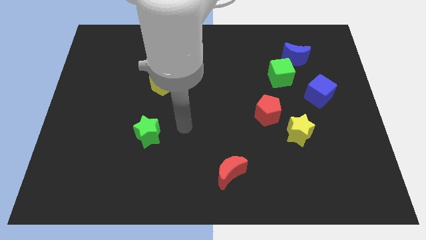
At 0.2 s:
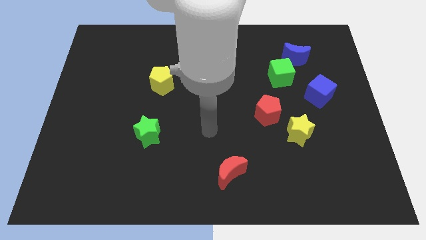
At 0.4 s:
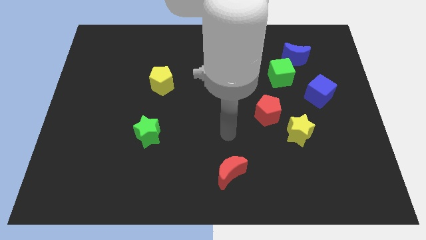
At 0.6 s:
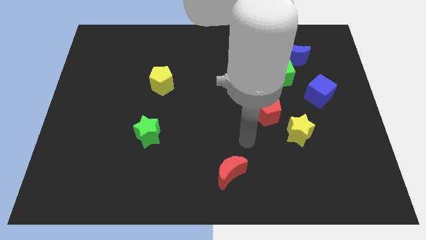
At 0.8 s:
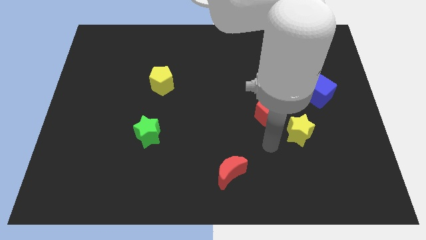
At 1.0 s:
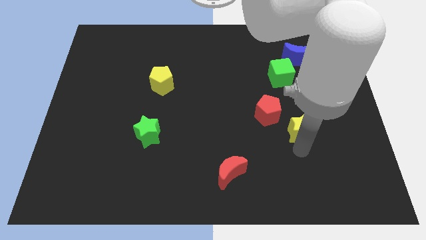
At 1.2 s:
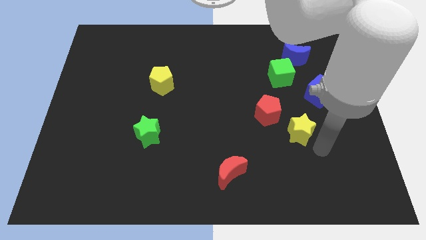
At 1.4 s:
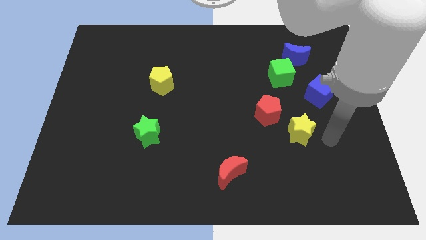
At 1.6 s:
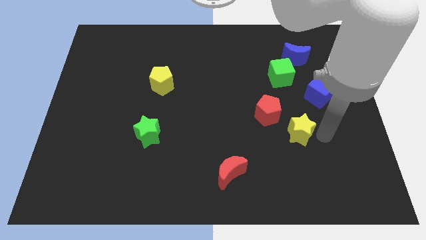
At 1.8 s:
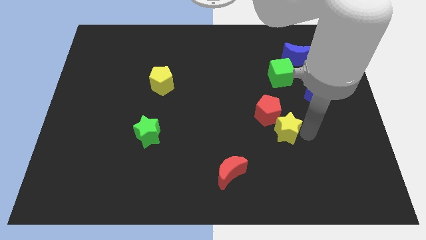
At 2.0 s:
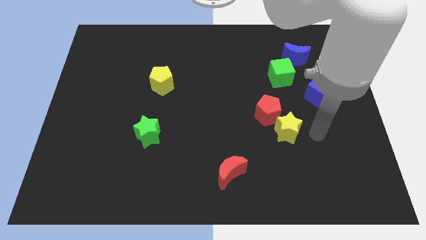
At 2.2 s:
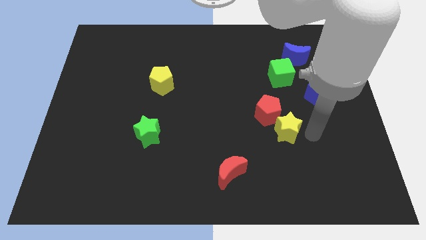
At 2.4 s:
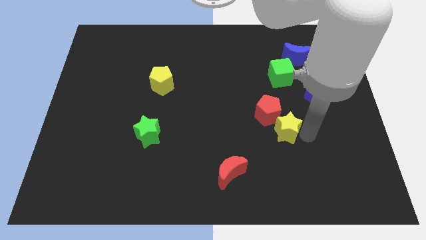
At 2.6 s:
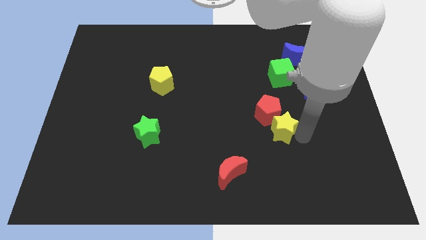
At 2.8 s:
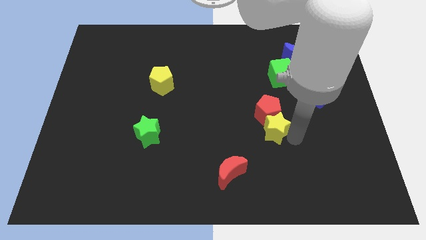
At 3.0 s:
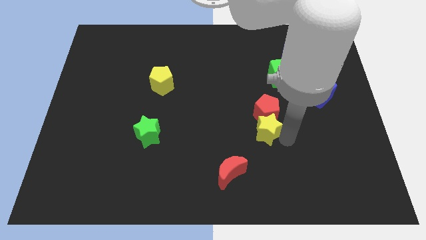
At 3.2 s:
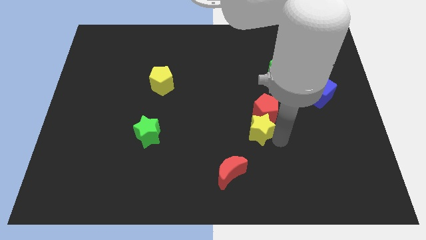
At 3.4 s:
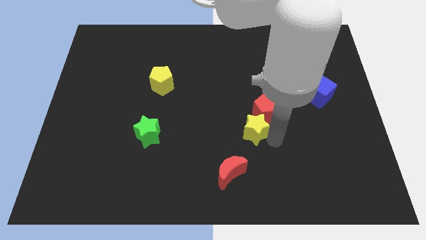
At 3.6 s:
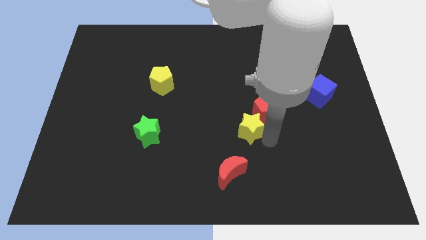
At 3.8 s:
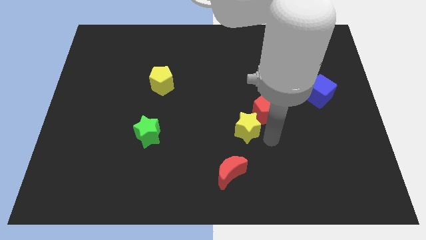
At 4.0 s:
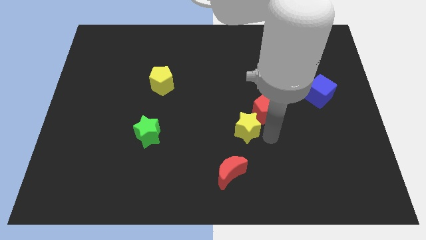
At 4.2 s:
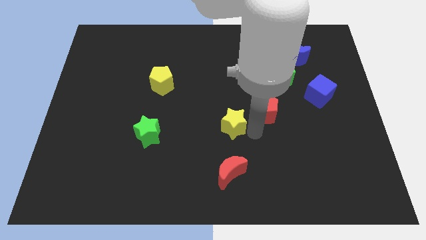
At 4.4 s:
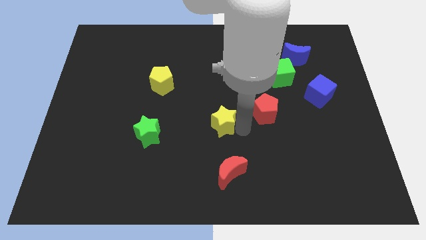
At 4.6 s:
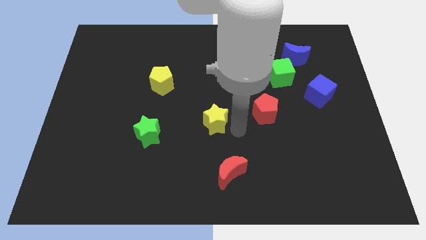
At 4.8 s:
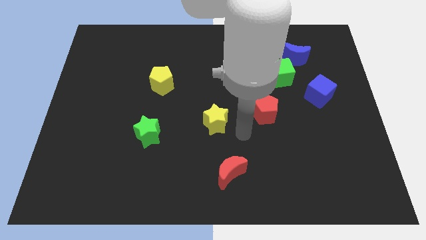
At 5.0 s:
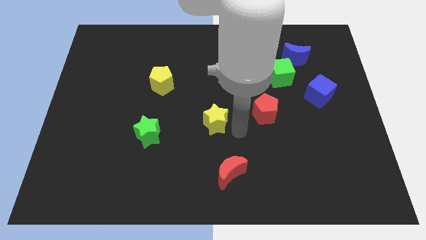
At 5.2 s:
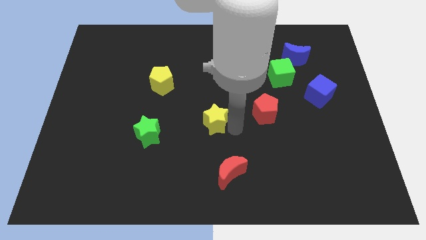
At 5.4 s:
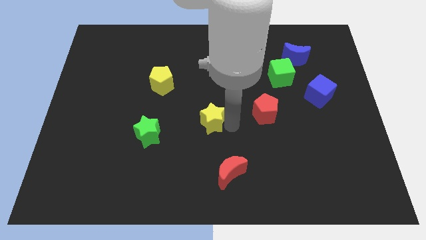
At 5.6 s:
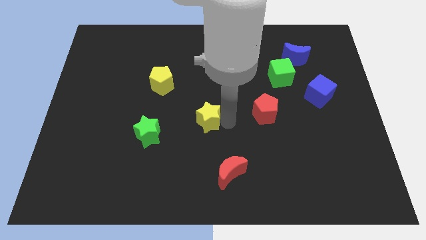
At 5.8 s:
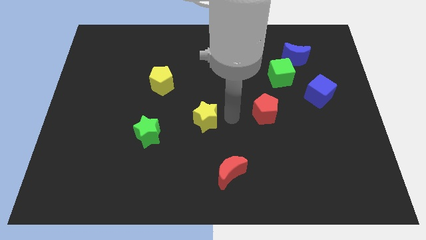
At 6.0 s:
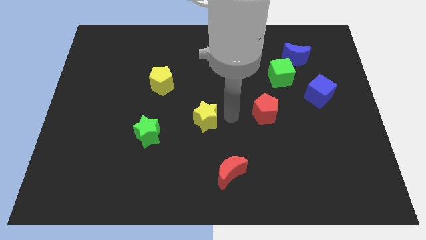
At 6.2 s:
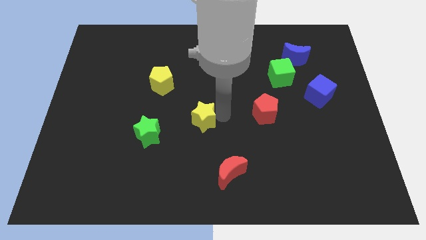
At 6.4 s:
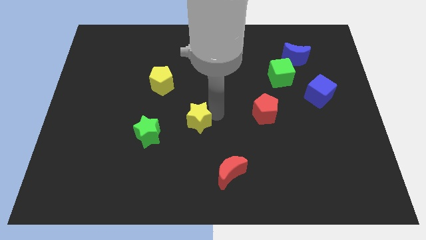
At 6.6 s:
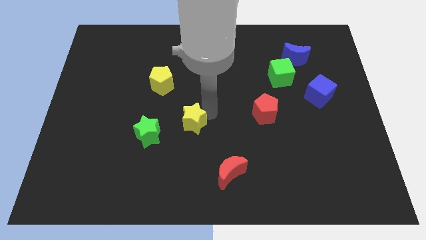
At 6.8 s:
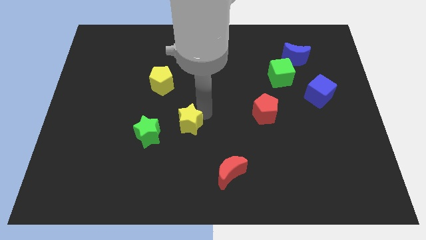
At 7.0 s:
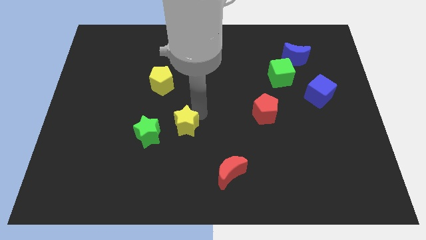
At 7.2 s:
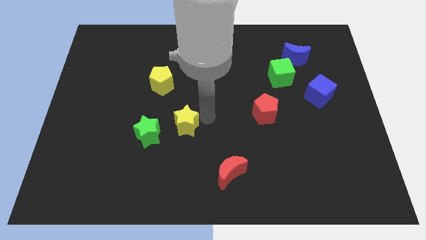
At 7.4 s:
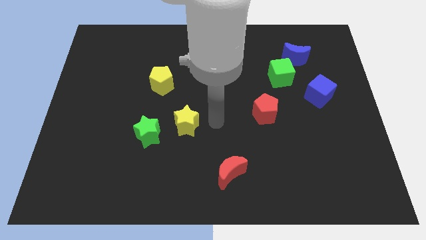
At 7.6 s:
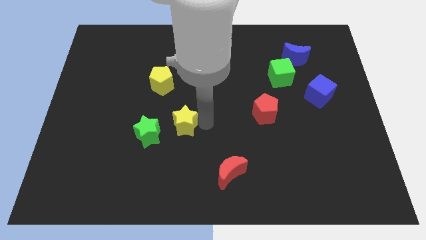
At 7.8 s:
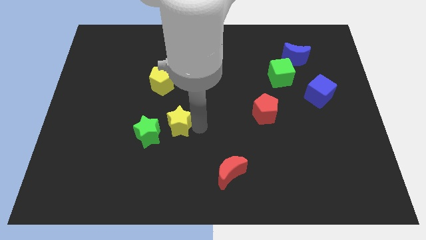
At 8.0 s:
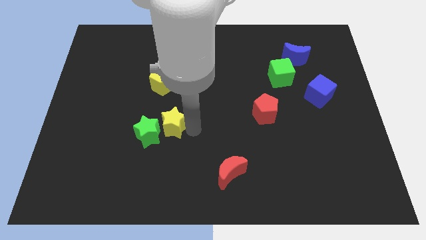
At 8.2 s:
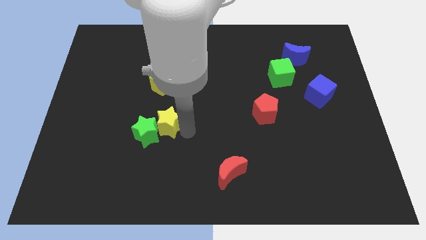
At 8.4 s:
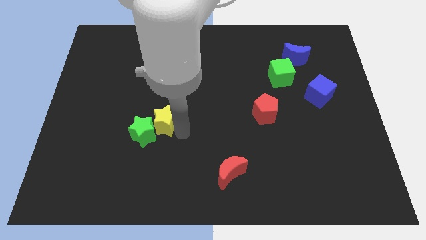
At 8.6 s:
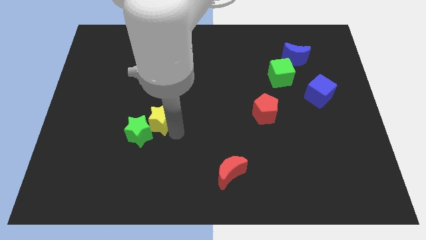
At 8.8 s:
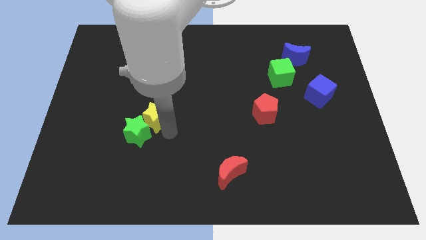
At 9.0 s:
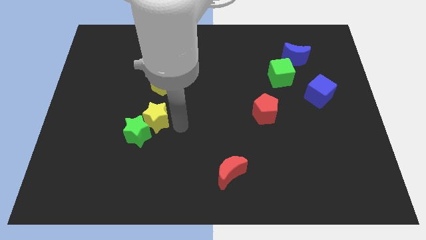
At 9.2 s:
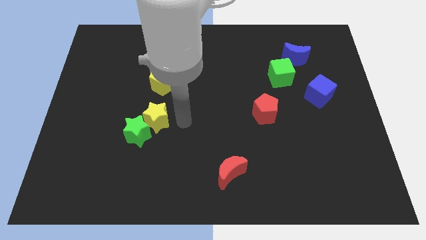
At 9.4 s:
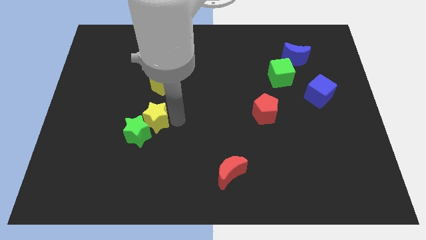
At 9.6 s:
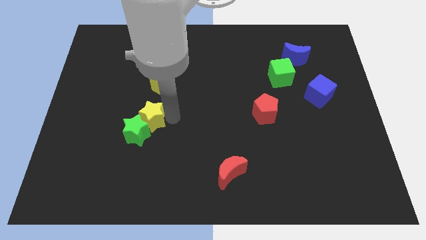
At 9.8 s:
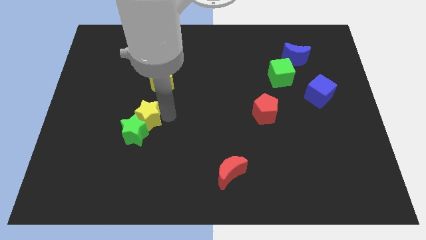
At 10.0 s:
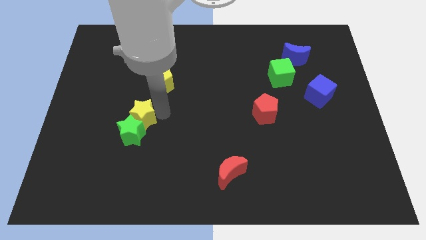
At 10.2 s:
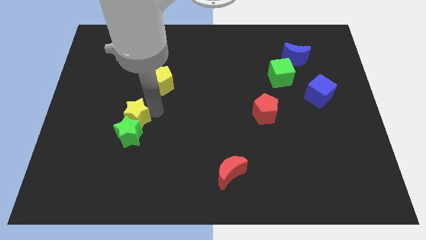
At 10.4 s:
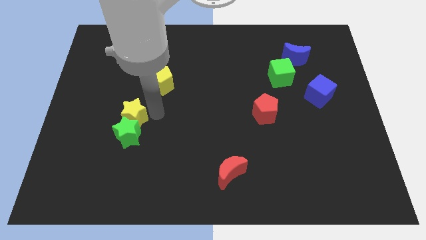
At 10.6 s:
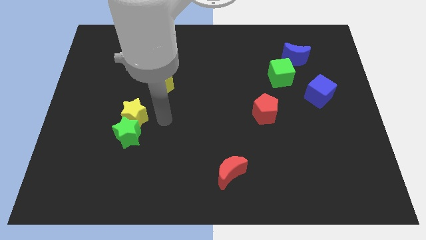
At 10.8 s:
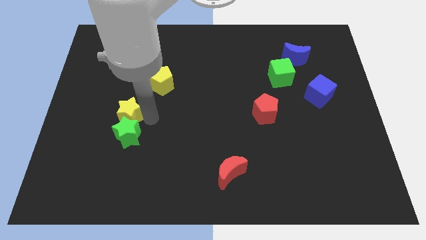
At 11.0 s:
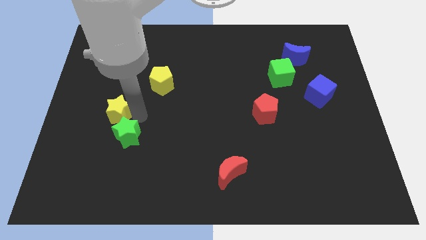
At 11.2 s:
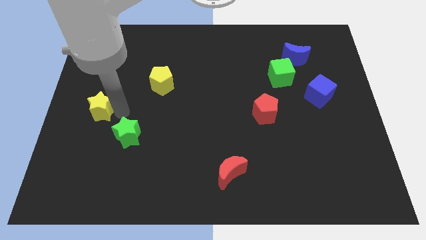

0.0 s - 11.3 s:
put the yellow star to the left side

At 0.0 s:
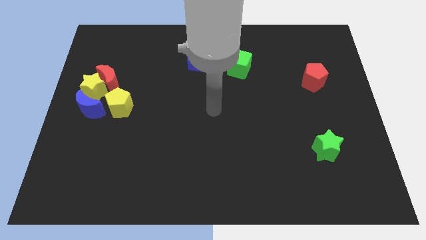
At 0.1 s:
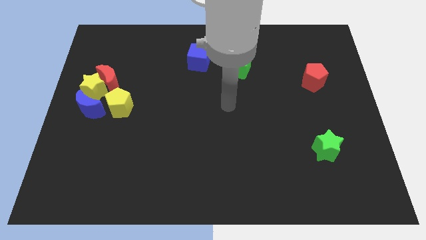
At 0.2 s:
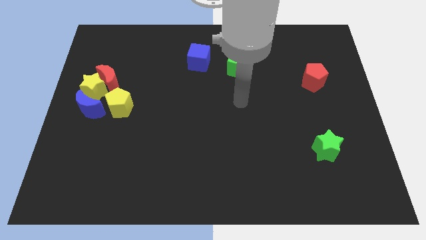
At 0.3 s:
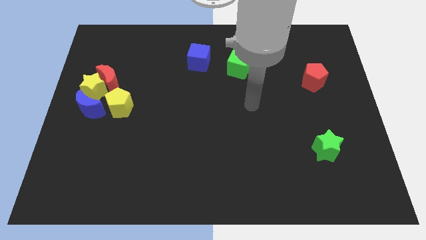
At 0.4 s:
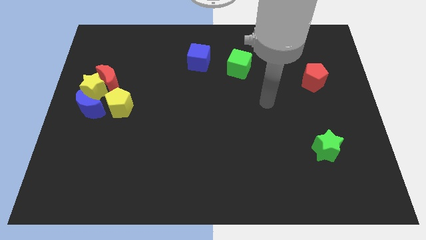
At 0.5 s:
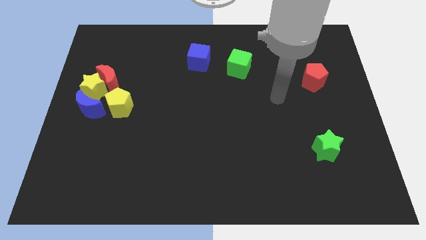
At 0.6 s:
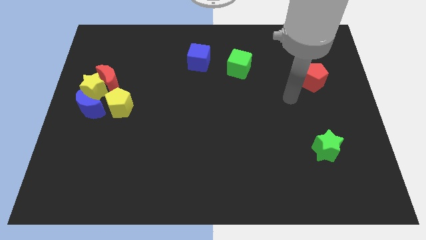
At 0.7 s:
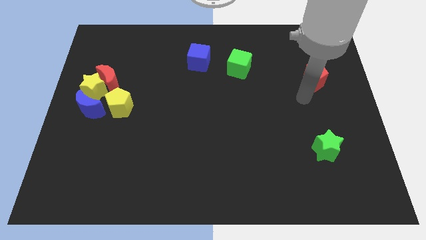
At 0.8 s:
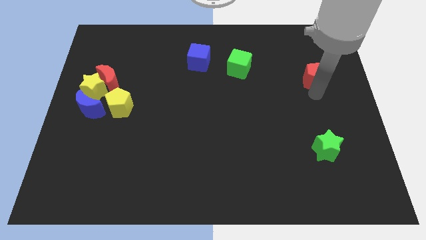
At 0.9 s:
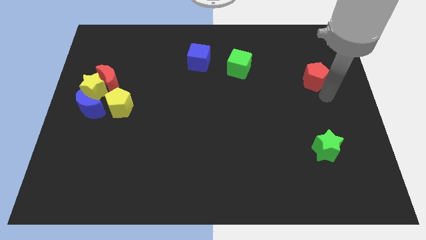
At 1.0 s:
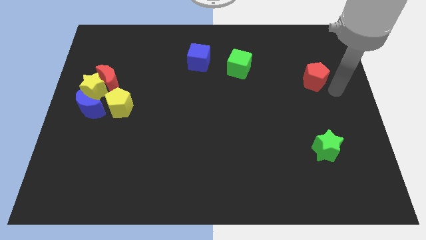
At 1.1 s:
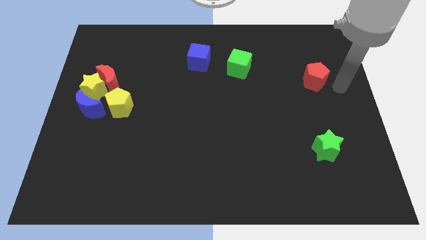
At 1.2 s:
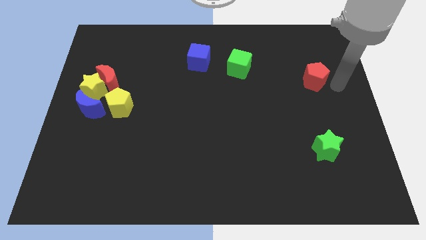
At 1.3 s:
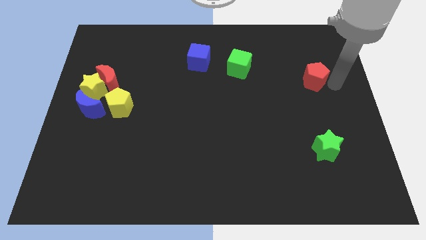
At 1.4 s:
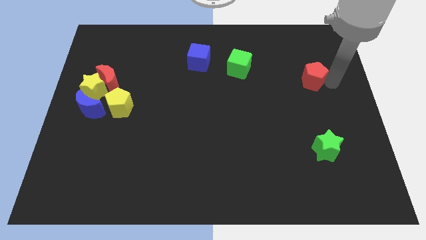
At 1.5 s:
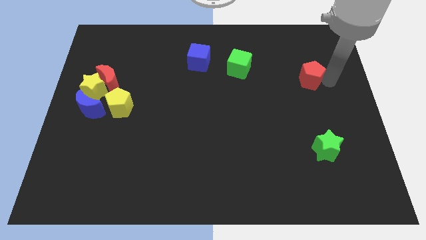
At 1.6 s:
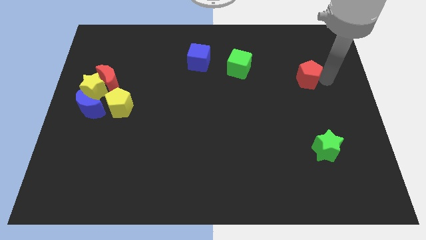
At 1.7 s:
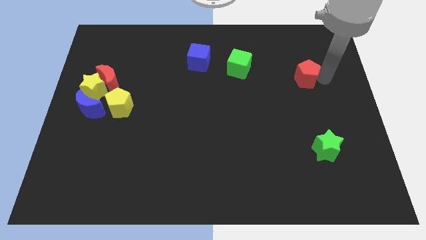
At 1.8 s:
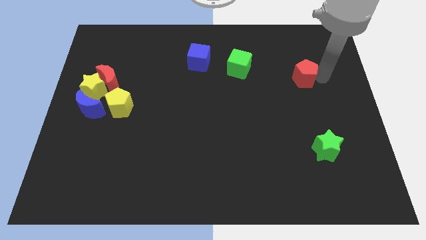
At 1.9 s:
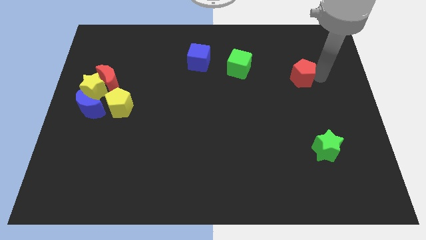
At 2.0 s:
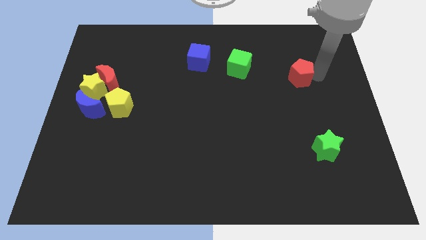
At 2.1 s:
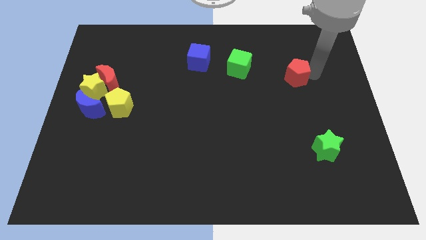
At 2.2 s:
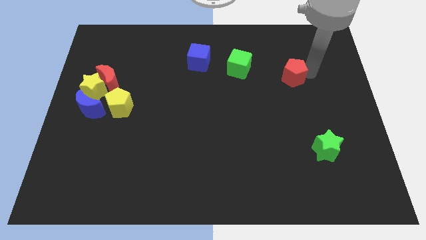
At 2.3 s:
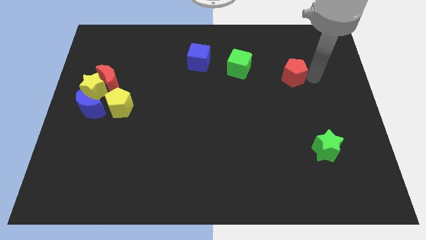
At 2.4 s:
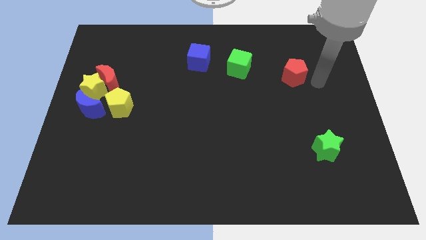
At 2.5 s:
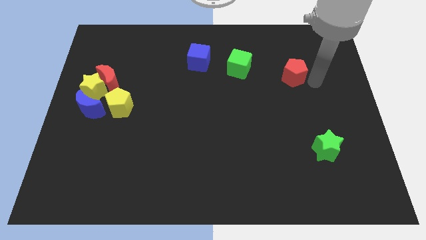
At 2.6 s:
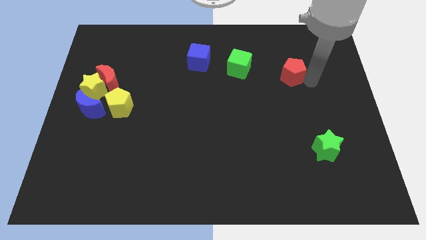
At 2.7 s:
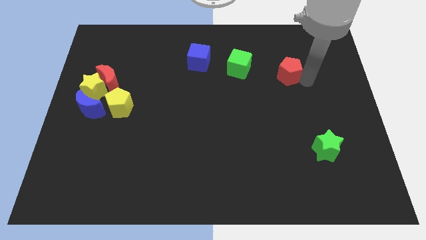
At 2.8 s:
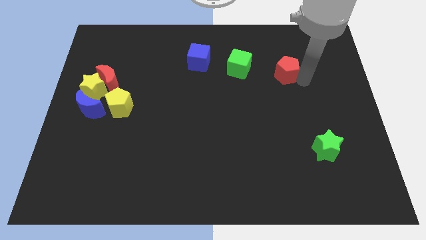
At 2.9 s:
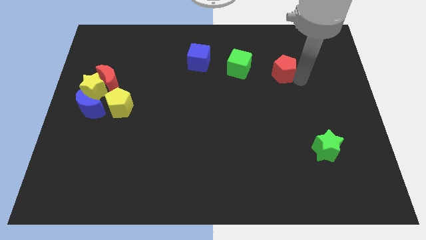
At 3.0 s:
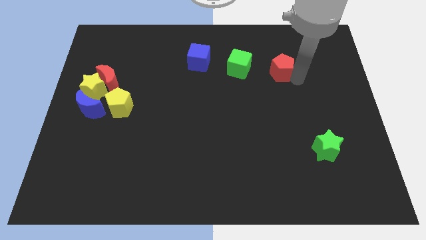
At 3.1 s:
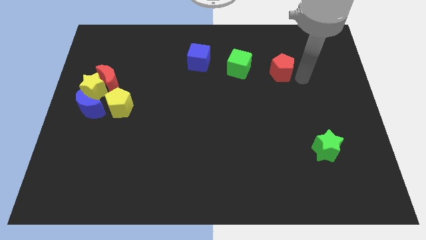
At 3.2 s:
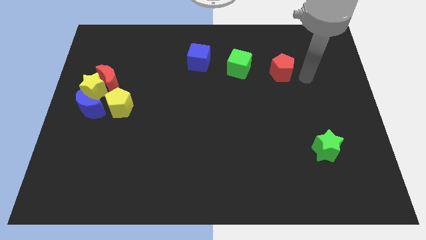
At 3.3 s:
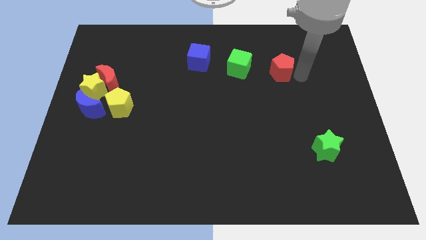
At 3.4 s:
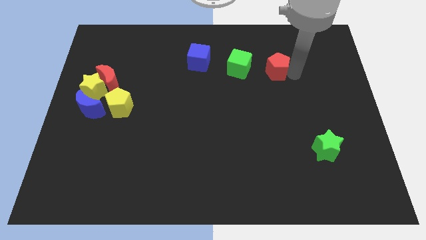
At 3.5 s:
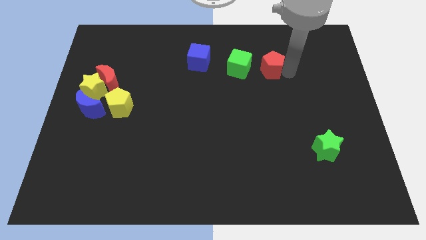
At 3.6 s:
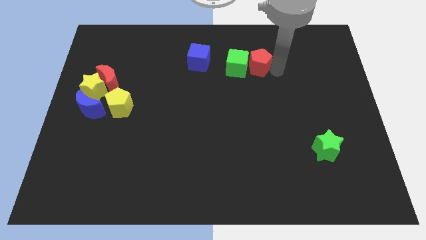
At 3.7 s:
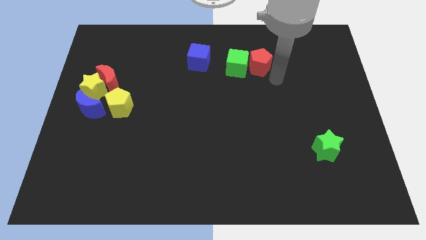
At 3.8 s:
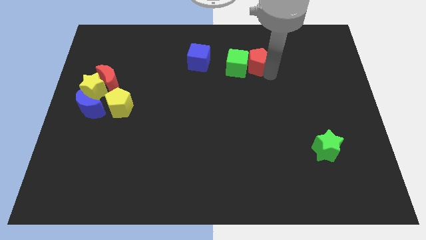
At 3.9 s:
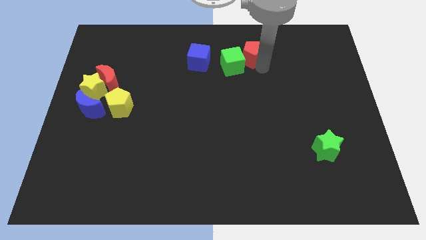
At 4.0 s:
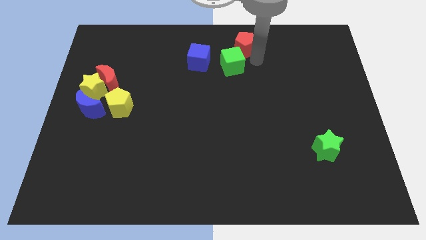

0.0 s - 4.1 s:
push the red pentagon to the top side
